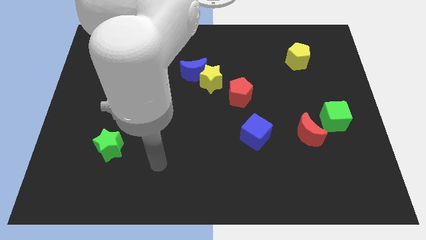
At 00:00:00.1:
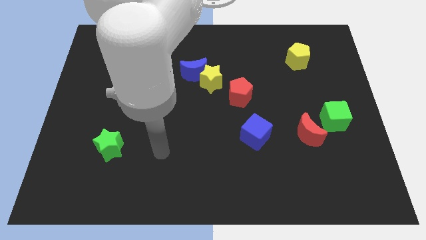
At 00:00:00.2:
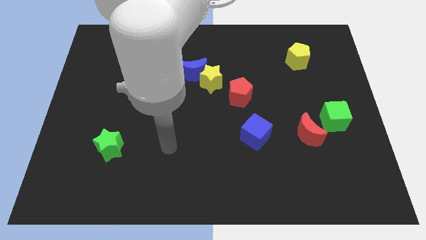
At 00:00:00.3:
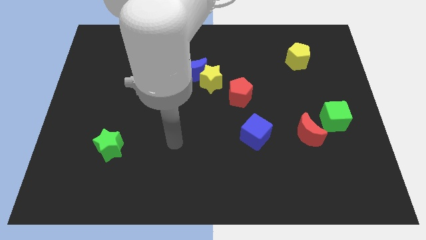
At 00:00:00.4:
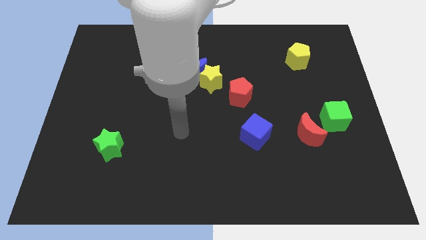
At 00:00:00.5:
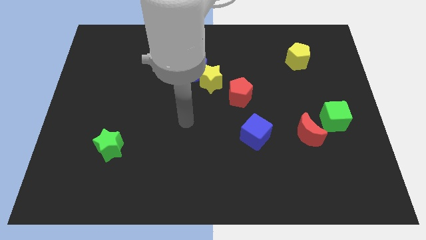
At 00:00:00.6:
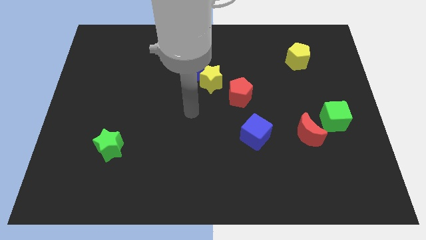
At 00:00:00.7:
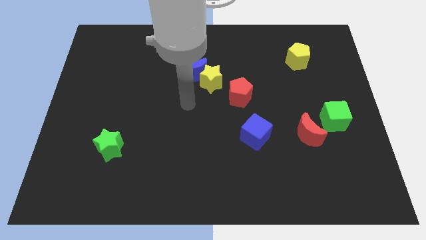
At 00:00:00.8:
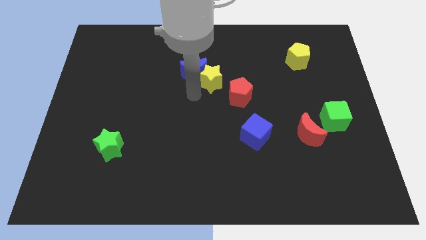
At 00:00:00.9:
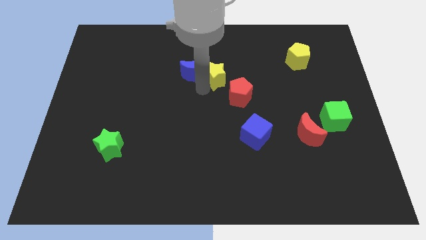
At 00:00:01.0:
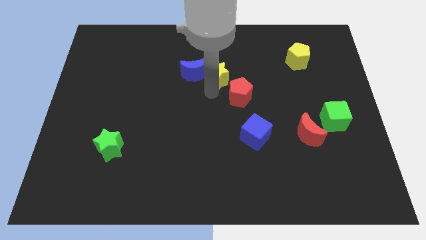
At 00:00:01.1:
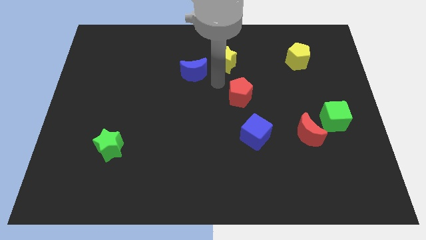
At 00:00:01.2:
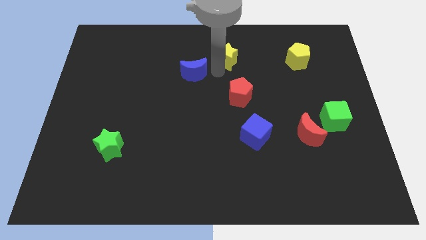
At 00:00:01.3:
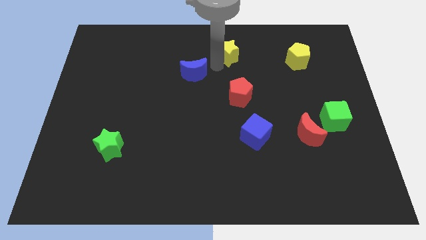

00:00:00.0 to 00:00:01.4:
separate the blue moon from the yellow star

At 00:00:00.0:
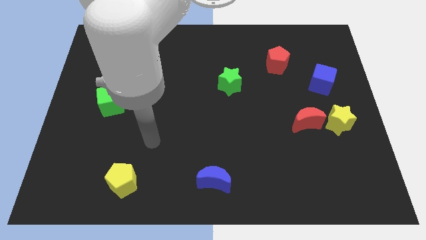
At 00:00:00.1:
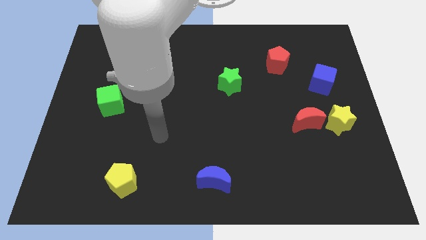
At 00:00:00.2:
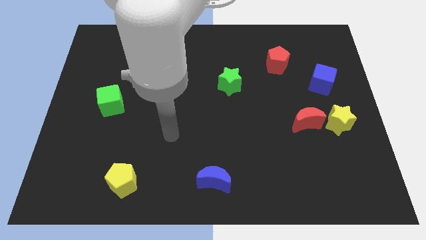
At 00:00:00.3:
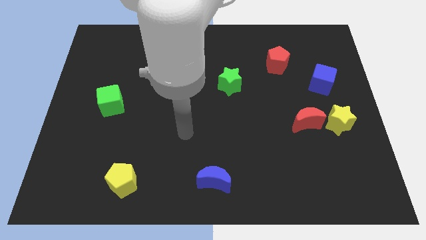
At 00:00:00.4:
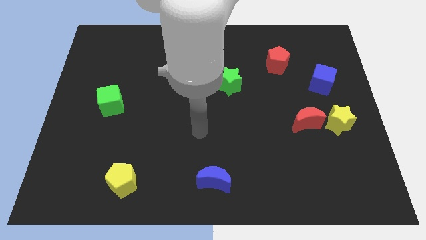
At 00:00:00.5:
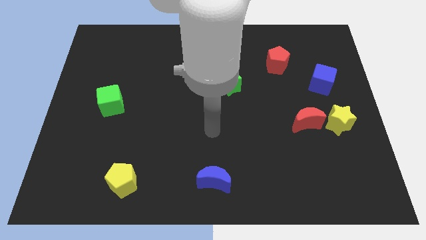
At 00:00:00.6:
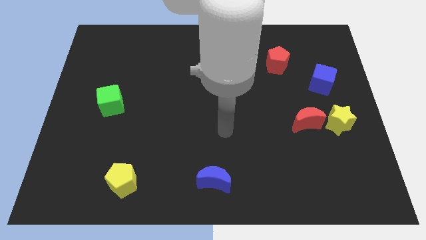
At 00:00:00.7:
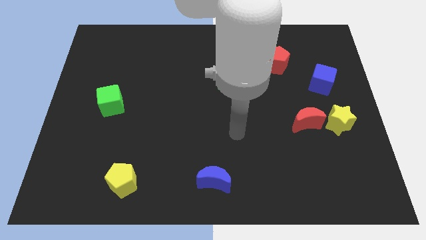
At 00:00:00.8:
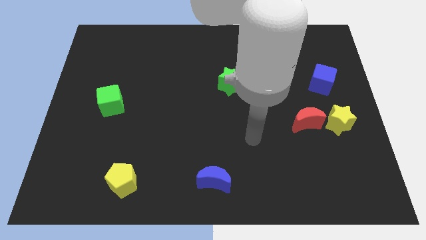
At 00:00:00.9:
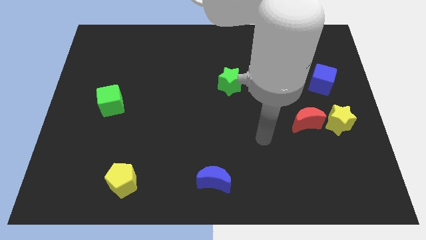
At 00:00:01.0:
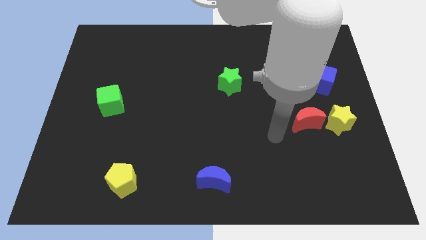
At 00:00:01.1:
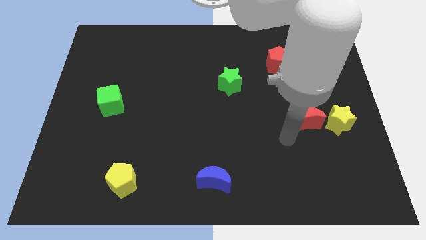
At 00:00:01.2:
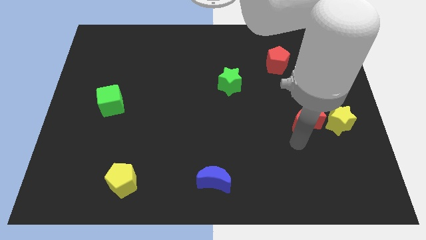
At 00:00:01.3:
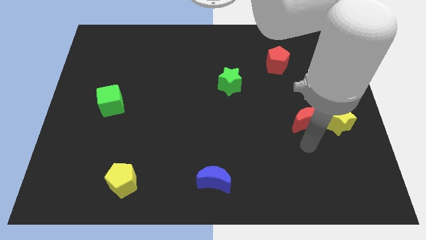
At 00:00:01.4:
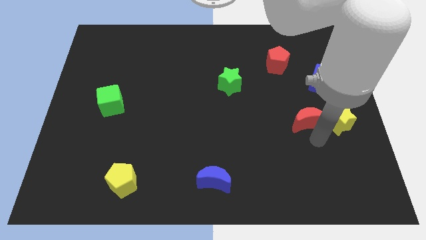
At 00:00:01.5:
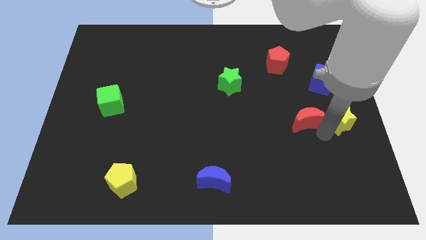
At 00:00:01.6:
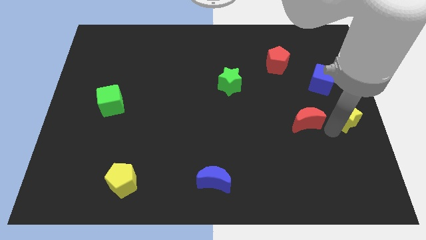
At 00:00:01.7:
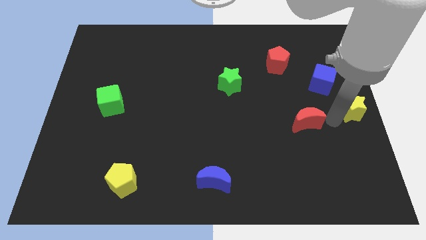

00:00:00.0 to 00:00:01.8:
pull the red moon apart from the yellow star

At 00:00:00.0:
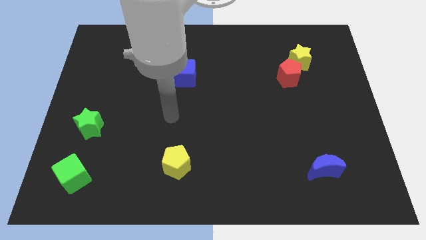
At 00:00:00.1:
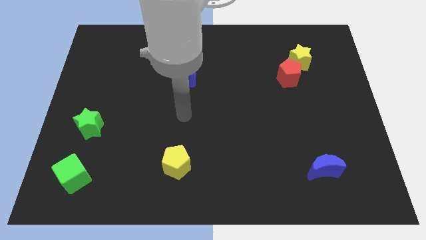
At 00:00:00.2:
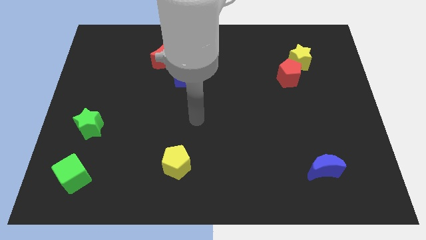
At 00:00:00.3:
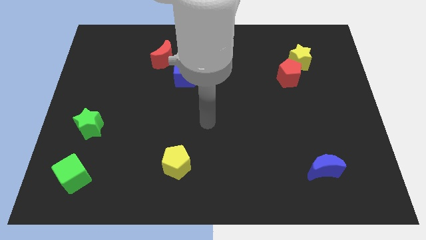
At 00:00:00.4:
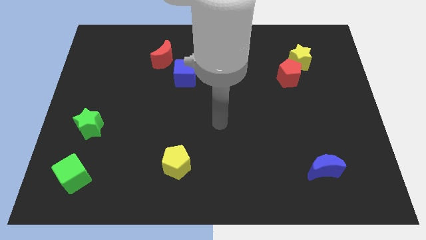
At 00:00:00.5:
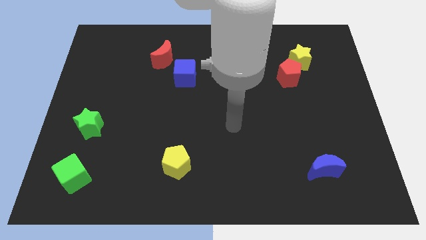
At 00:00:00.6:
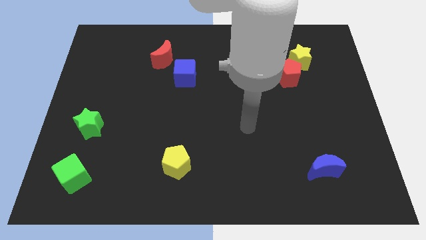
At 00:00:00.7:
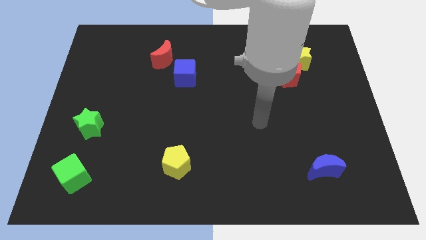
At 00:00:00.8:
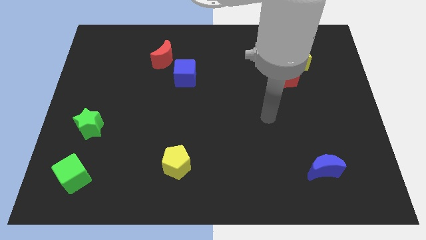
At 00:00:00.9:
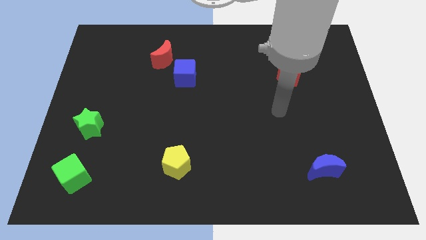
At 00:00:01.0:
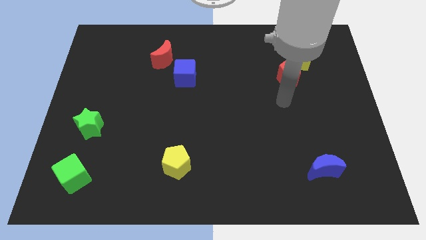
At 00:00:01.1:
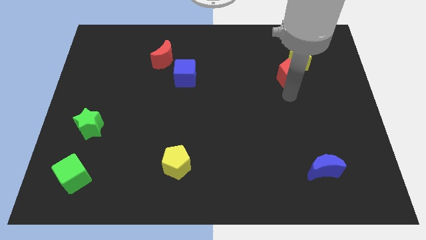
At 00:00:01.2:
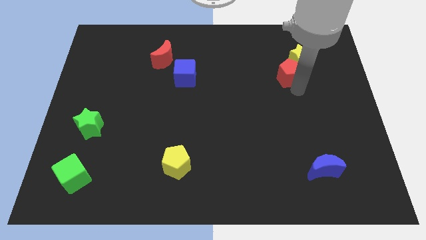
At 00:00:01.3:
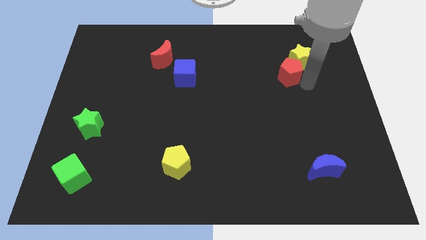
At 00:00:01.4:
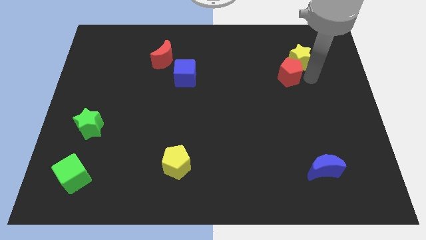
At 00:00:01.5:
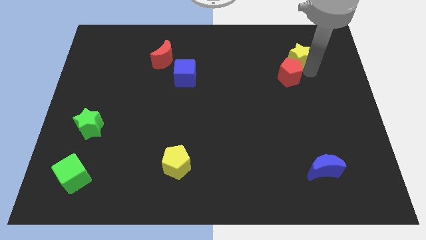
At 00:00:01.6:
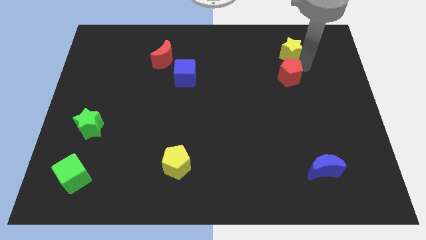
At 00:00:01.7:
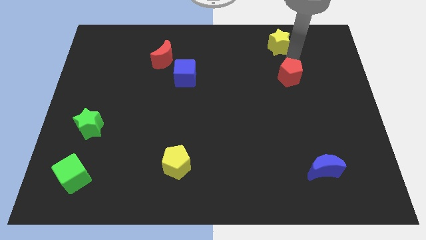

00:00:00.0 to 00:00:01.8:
move the red pentagon away from the yellow star

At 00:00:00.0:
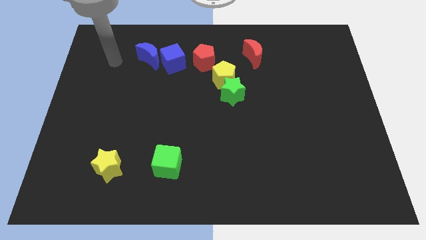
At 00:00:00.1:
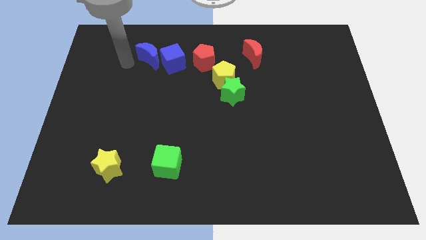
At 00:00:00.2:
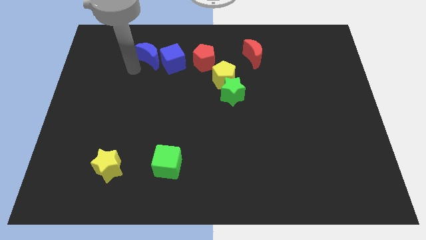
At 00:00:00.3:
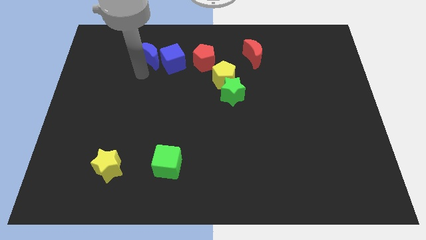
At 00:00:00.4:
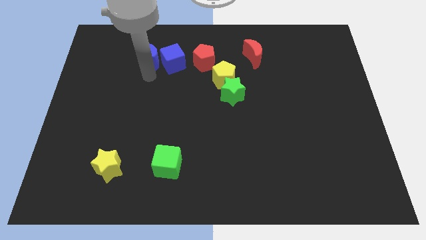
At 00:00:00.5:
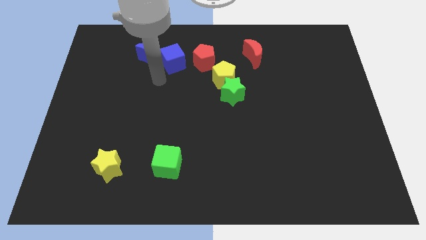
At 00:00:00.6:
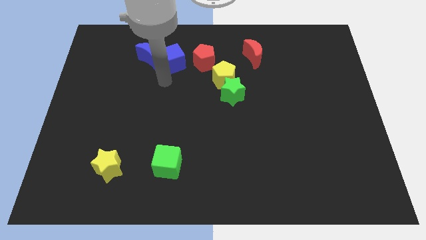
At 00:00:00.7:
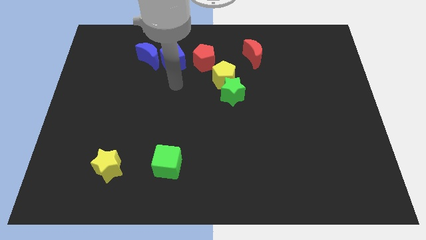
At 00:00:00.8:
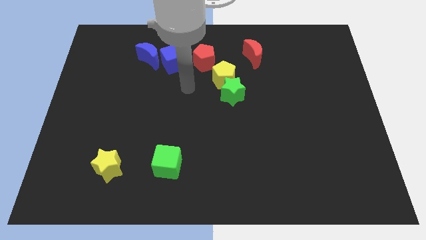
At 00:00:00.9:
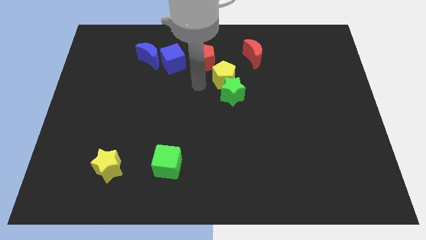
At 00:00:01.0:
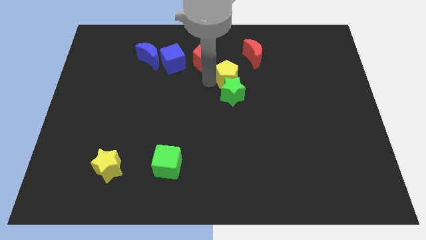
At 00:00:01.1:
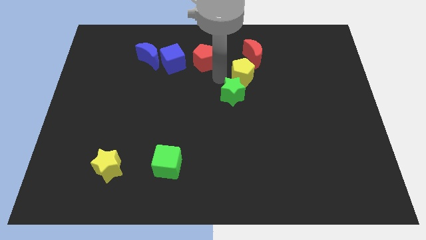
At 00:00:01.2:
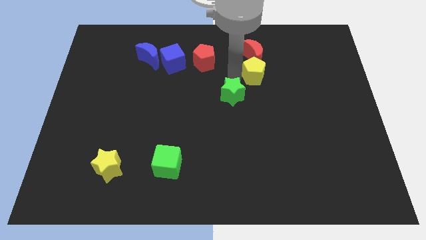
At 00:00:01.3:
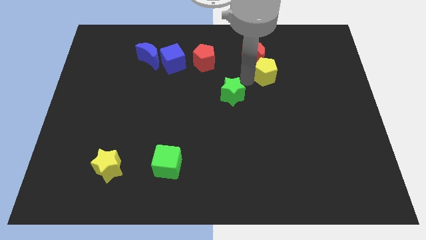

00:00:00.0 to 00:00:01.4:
pull the green star apart from the yellow pentagon

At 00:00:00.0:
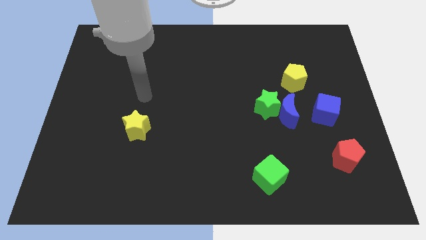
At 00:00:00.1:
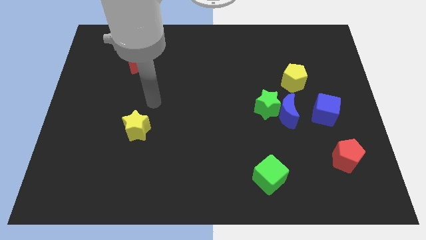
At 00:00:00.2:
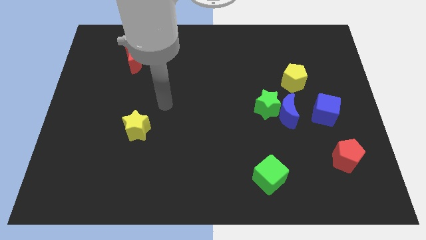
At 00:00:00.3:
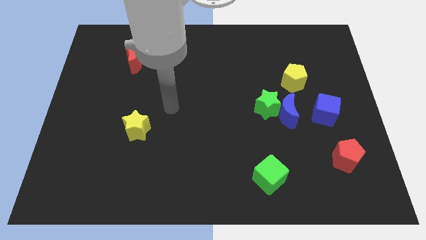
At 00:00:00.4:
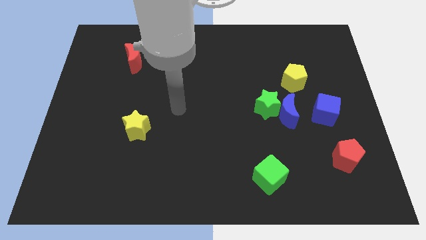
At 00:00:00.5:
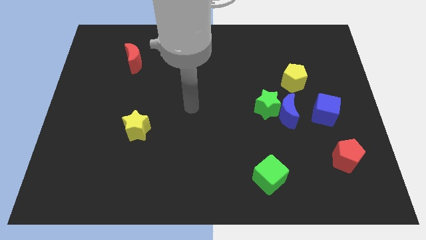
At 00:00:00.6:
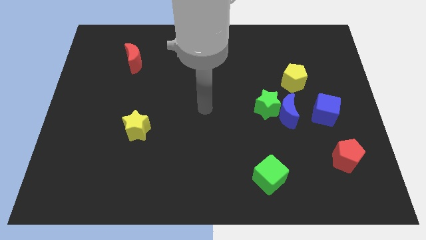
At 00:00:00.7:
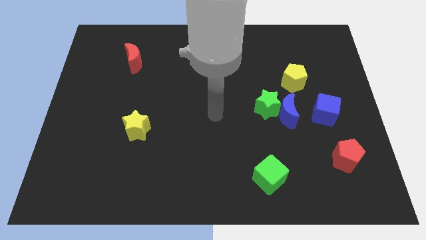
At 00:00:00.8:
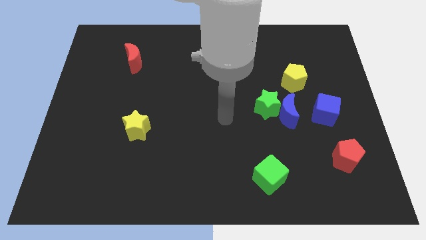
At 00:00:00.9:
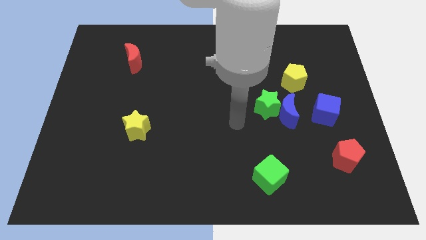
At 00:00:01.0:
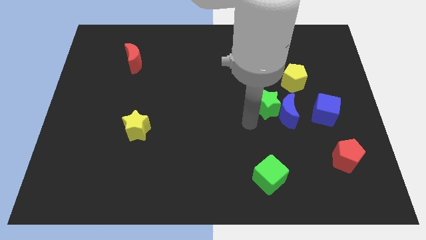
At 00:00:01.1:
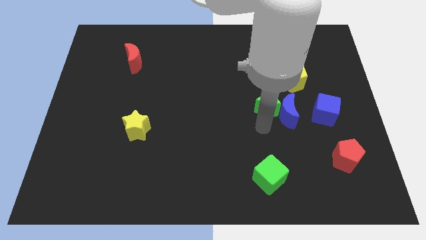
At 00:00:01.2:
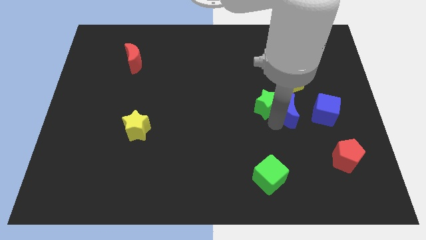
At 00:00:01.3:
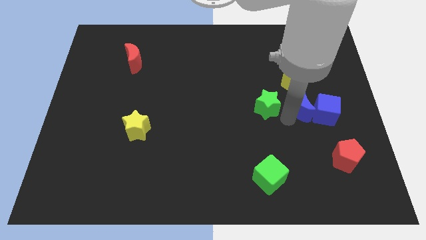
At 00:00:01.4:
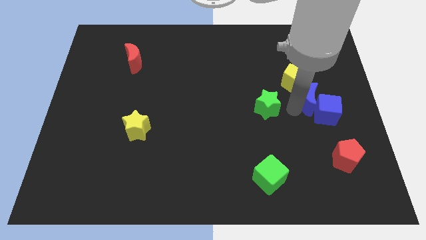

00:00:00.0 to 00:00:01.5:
move the green star away from the blue moon

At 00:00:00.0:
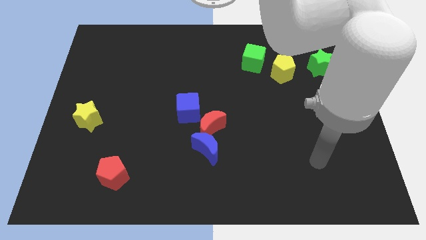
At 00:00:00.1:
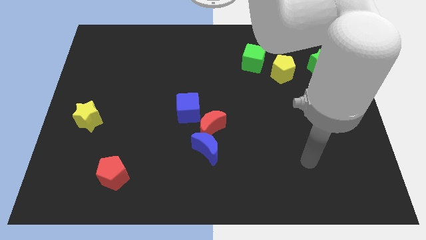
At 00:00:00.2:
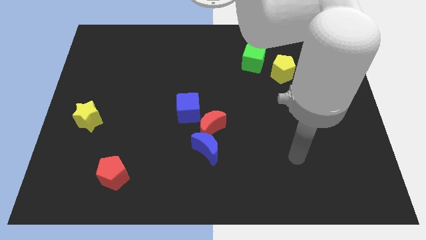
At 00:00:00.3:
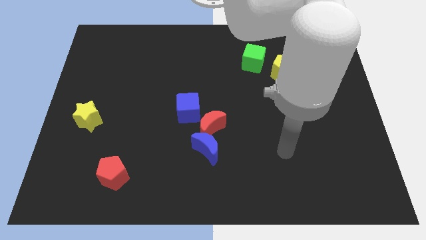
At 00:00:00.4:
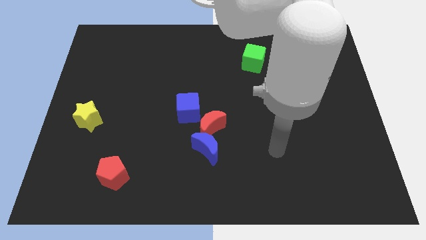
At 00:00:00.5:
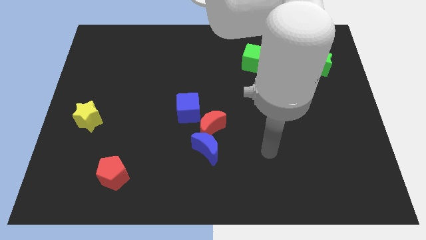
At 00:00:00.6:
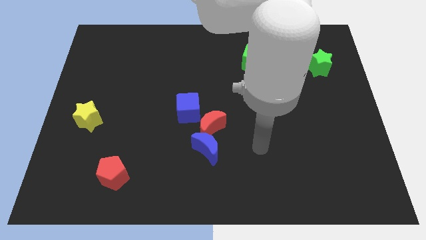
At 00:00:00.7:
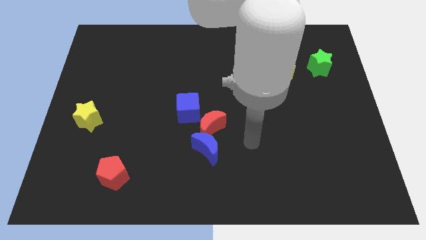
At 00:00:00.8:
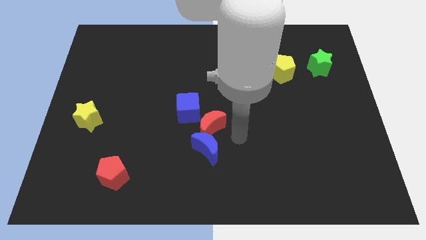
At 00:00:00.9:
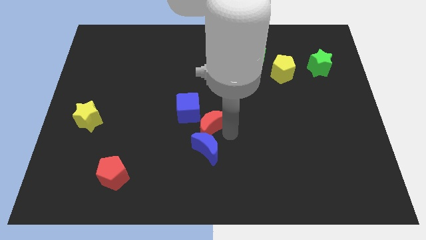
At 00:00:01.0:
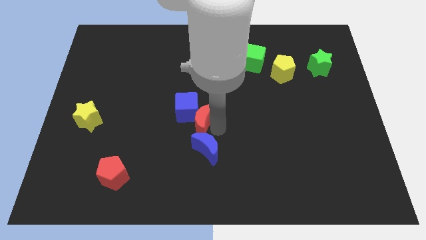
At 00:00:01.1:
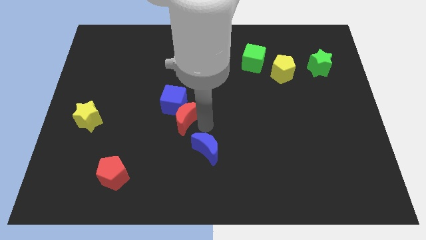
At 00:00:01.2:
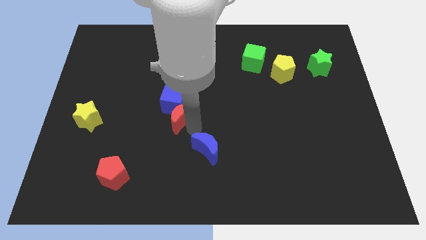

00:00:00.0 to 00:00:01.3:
move the blue moon away from the red moon
